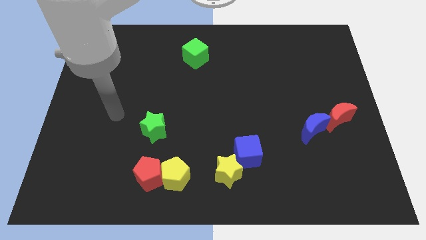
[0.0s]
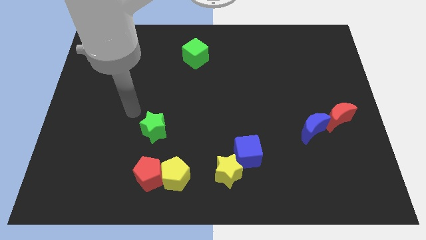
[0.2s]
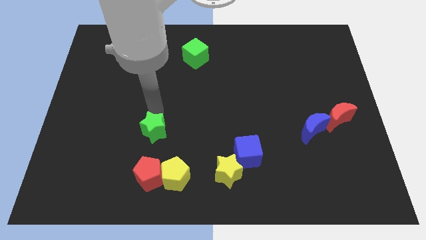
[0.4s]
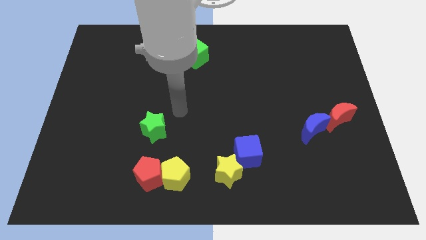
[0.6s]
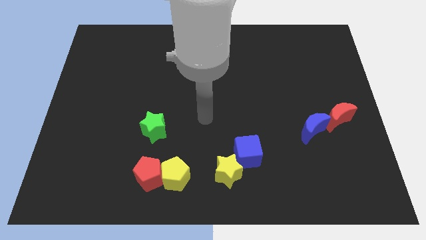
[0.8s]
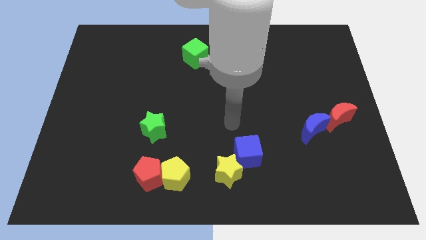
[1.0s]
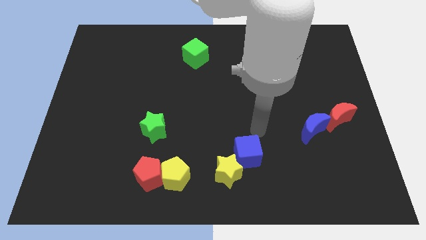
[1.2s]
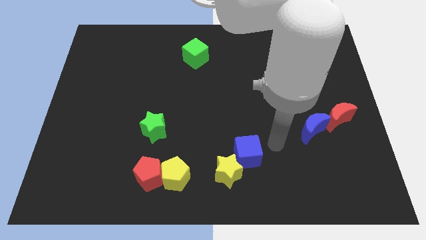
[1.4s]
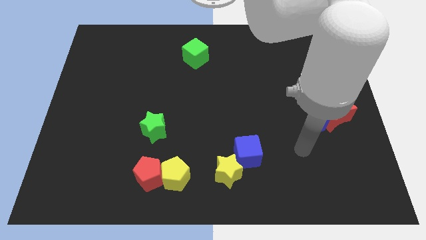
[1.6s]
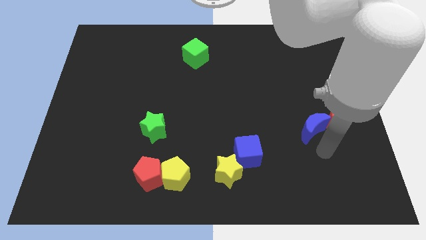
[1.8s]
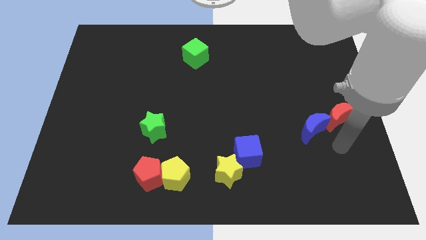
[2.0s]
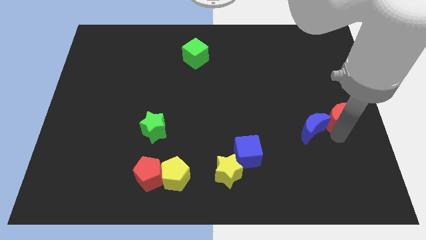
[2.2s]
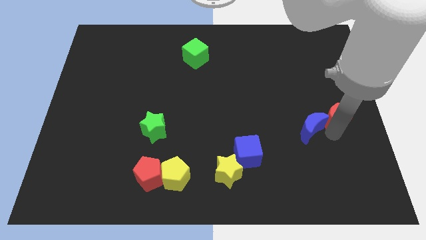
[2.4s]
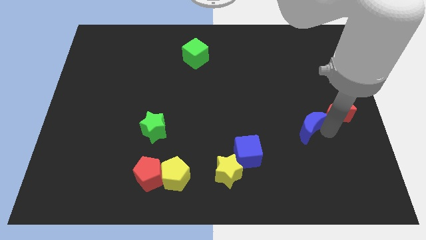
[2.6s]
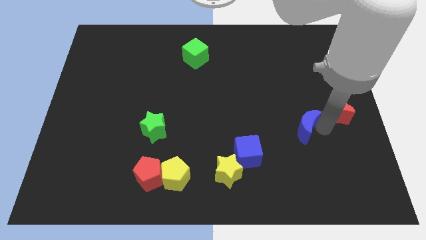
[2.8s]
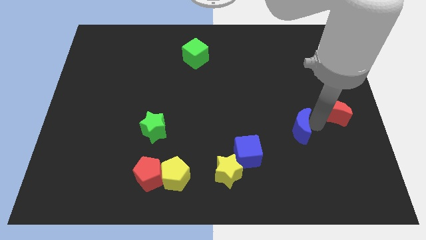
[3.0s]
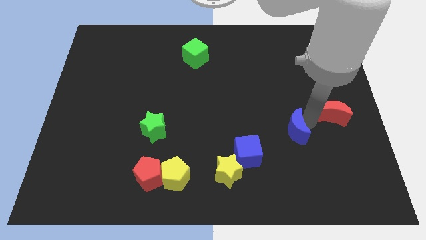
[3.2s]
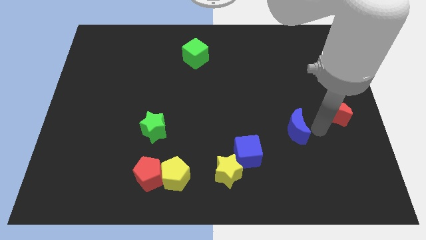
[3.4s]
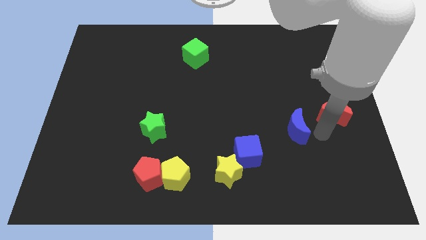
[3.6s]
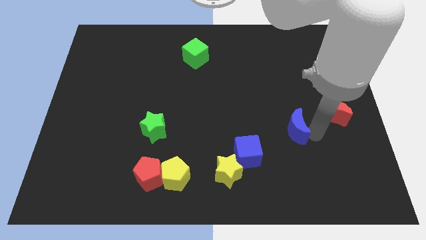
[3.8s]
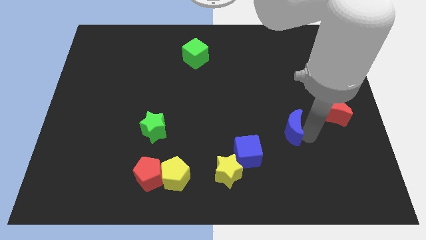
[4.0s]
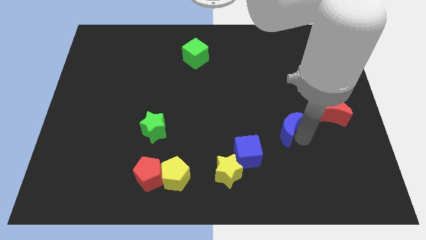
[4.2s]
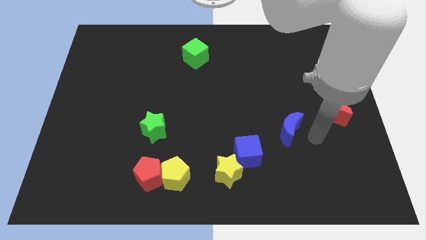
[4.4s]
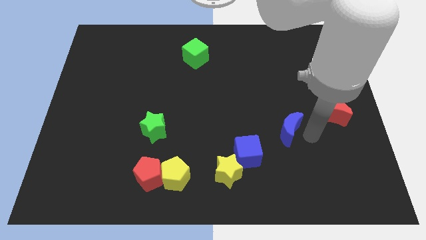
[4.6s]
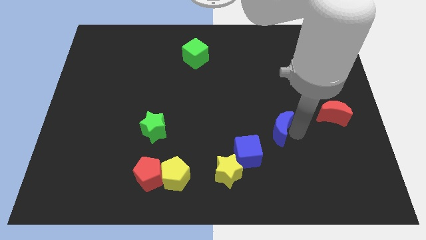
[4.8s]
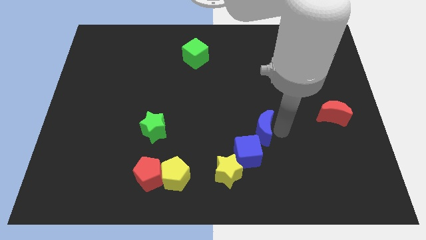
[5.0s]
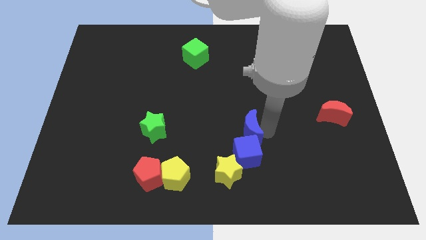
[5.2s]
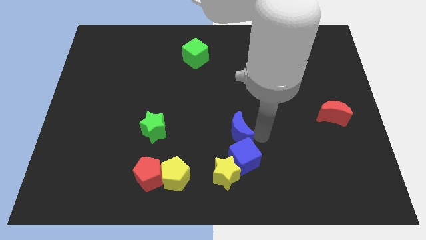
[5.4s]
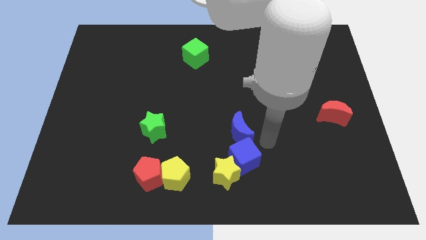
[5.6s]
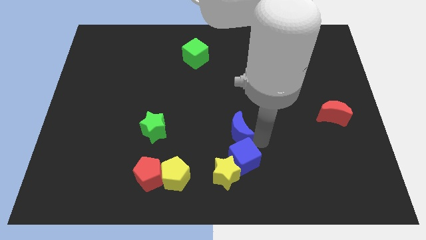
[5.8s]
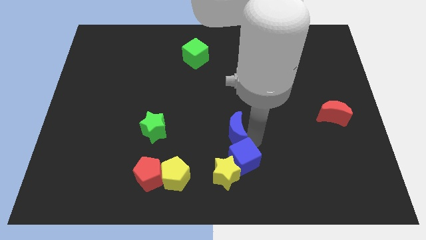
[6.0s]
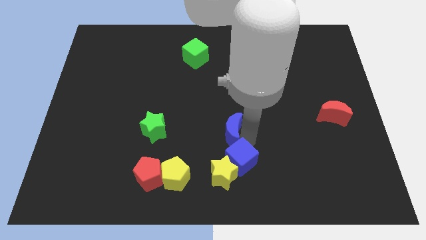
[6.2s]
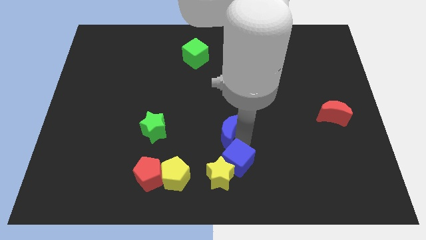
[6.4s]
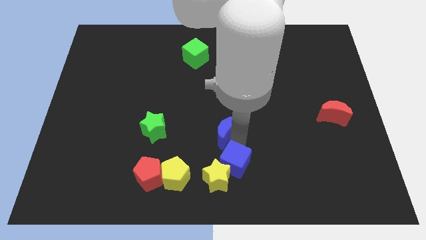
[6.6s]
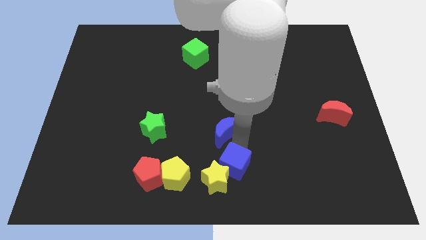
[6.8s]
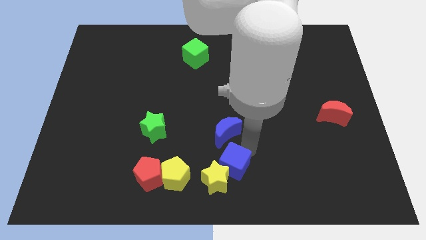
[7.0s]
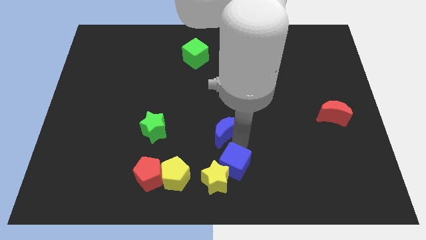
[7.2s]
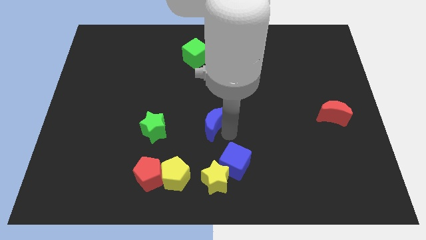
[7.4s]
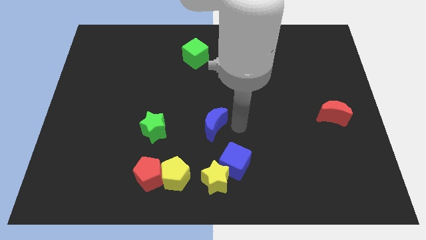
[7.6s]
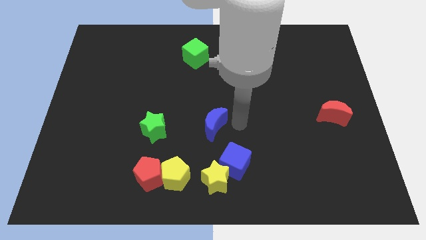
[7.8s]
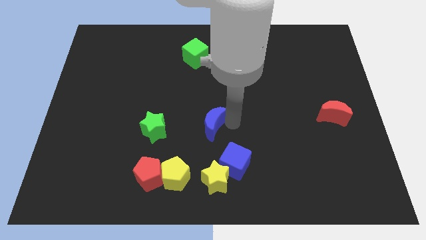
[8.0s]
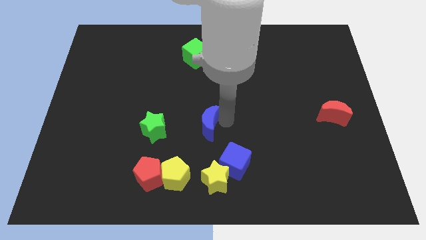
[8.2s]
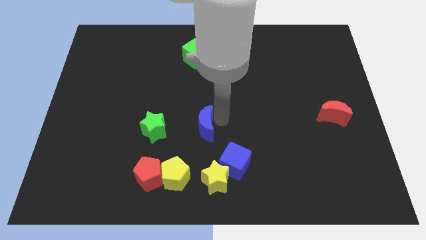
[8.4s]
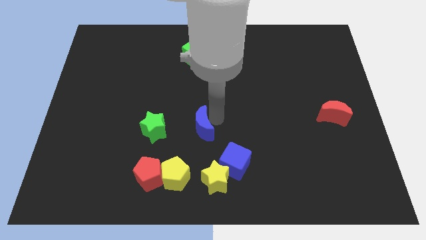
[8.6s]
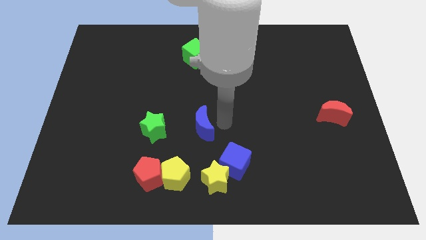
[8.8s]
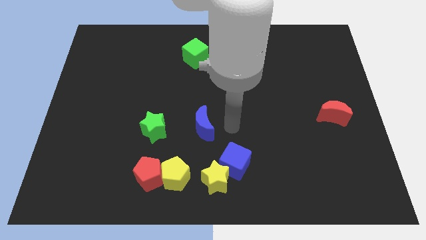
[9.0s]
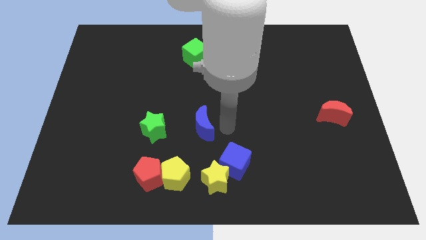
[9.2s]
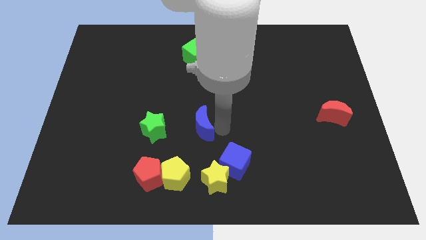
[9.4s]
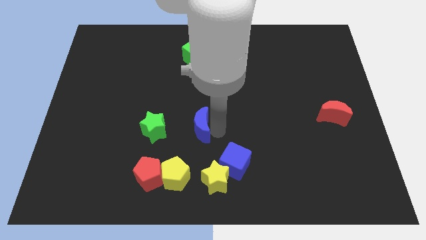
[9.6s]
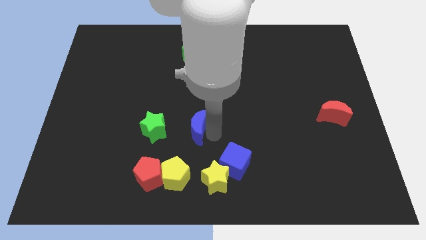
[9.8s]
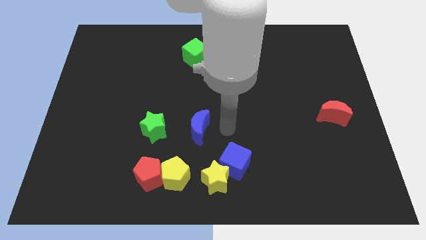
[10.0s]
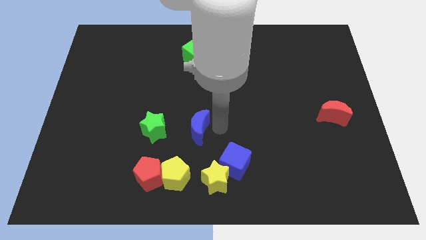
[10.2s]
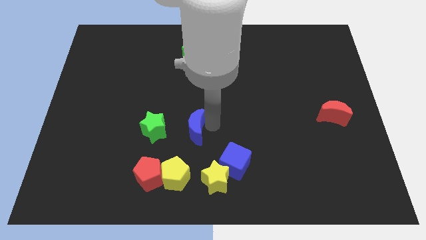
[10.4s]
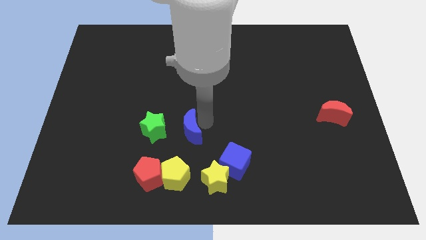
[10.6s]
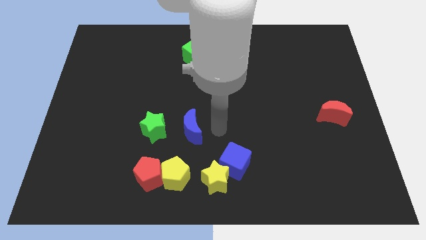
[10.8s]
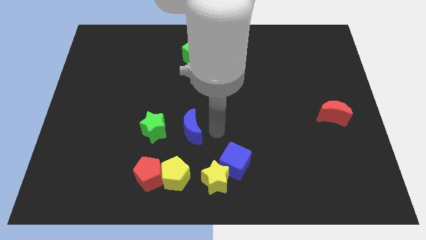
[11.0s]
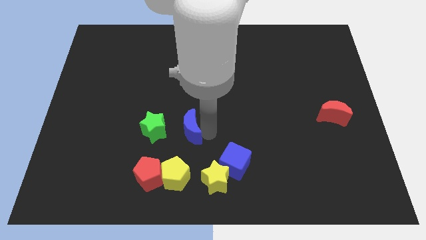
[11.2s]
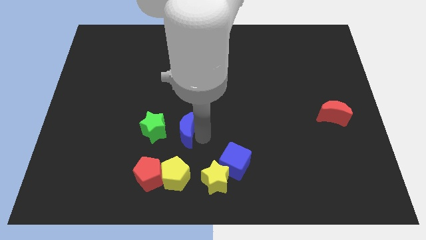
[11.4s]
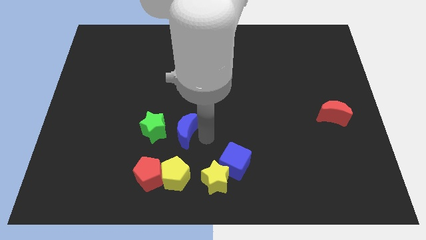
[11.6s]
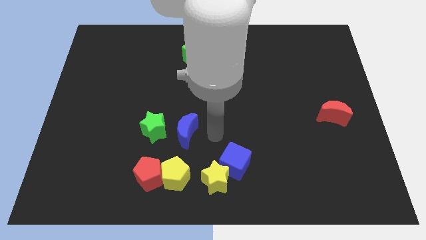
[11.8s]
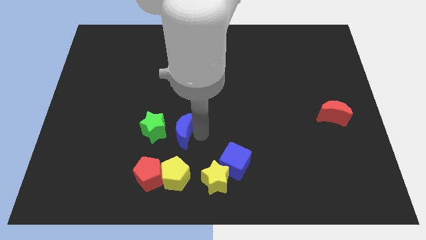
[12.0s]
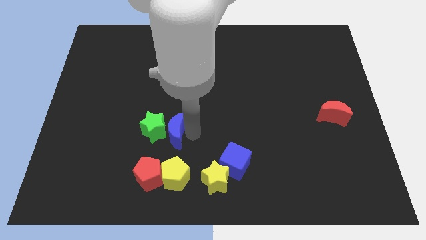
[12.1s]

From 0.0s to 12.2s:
put the blue moon next to the green star
